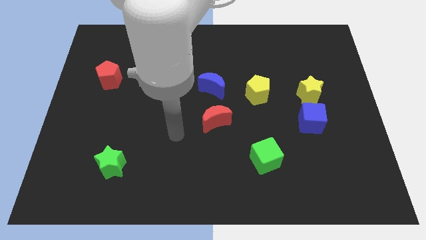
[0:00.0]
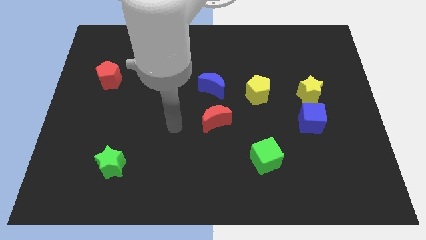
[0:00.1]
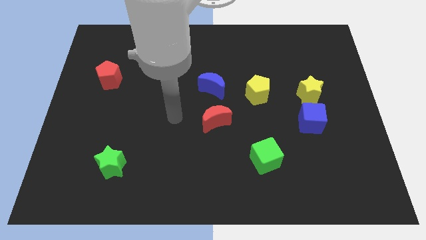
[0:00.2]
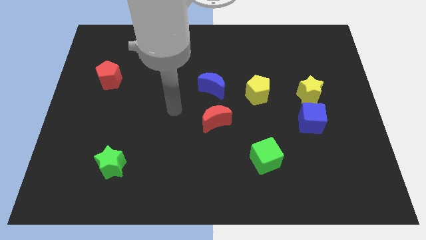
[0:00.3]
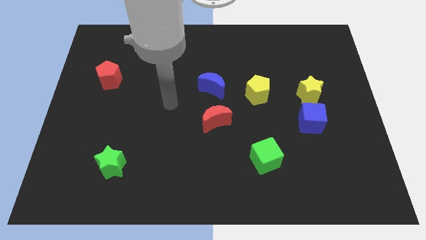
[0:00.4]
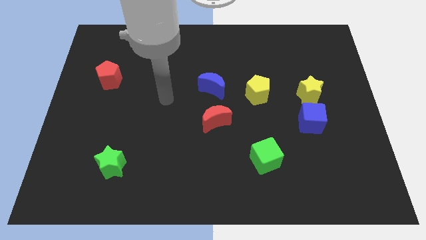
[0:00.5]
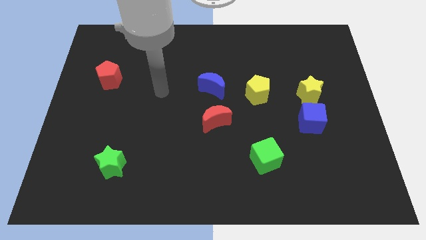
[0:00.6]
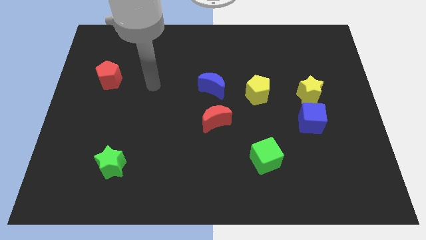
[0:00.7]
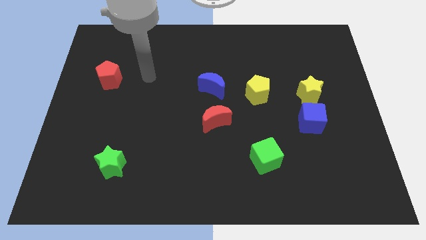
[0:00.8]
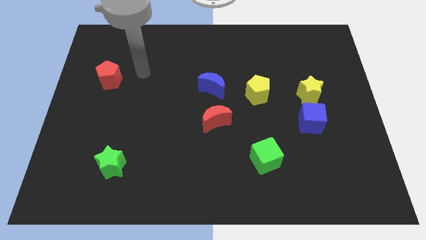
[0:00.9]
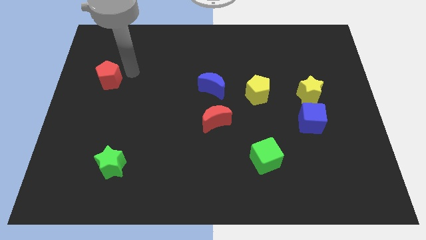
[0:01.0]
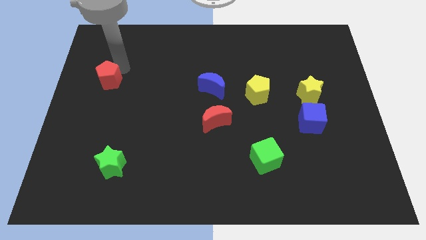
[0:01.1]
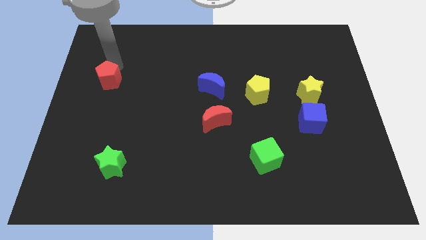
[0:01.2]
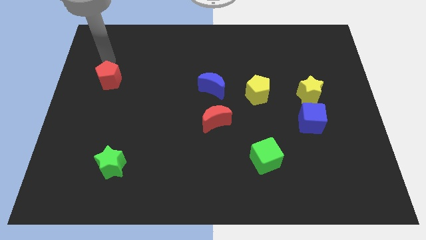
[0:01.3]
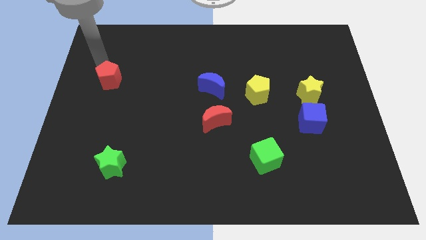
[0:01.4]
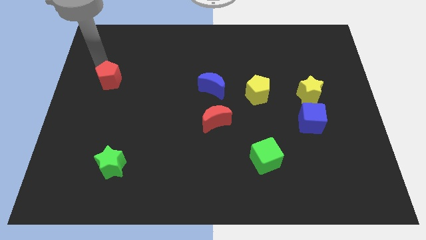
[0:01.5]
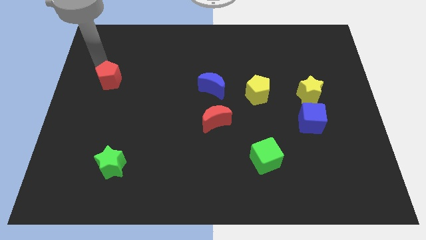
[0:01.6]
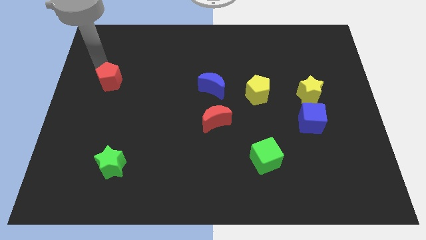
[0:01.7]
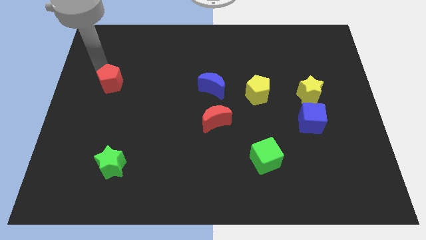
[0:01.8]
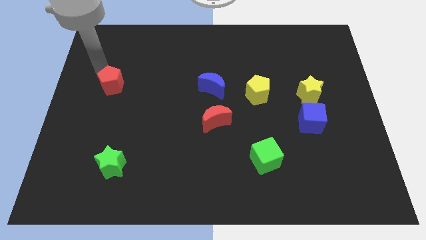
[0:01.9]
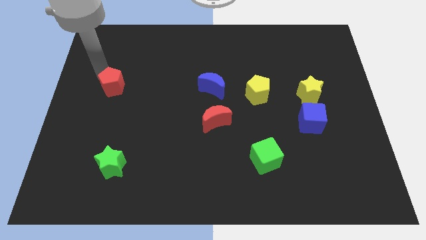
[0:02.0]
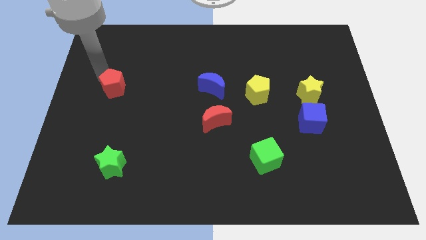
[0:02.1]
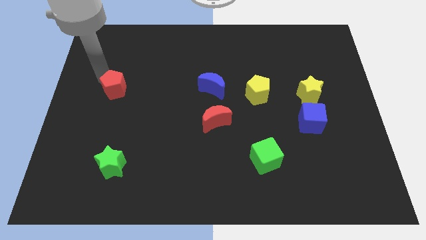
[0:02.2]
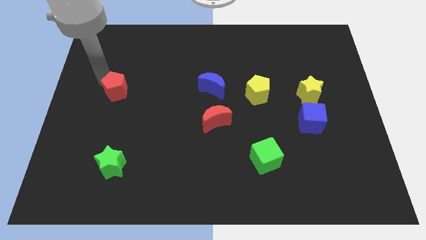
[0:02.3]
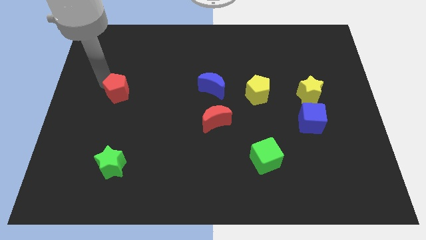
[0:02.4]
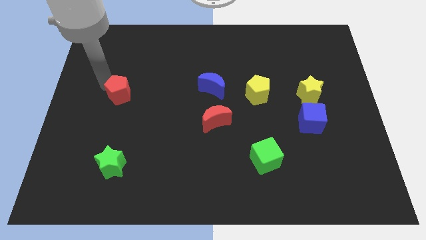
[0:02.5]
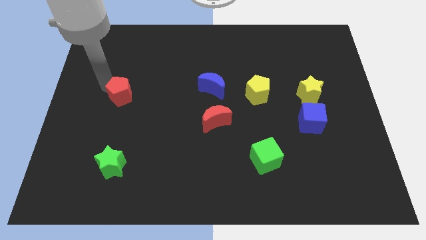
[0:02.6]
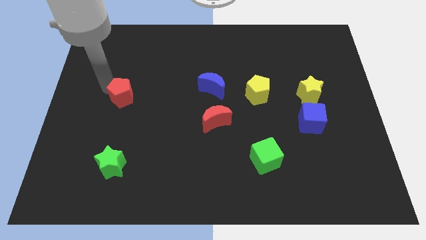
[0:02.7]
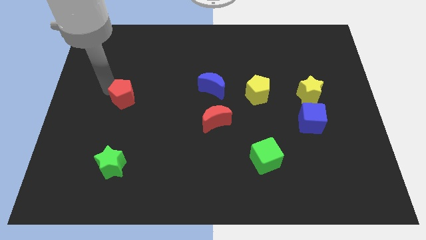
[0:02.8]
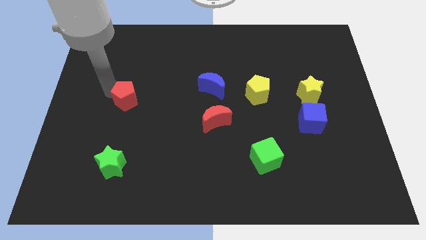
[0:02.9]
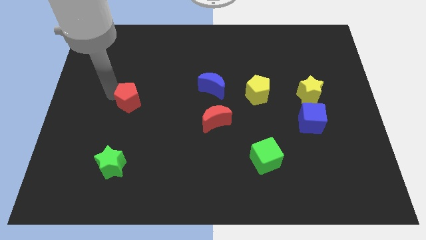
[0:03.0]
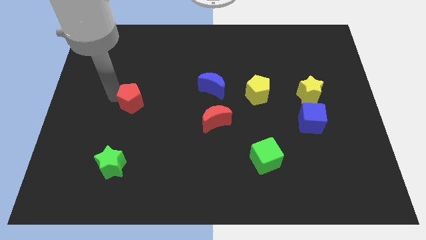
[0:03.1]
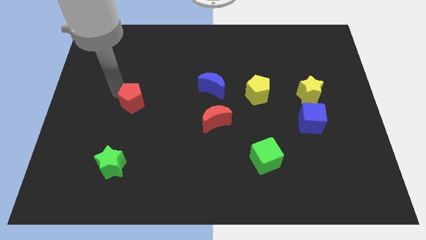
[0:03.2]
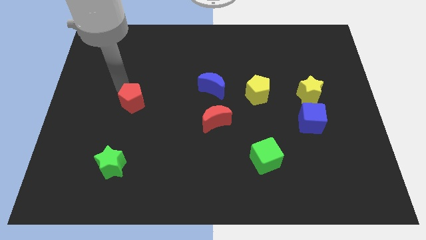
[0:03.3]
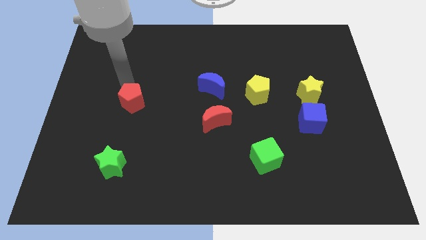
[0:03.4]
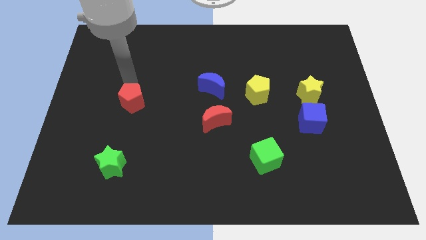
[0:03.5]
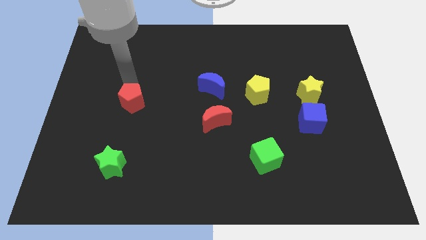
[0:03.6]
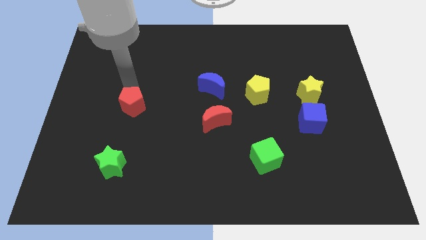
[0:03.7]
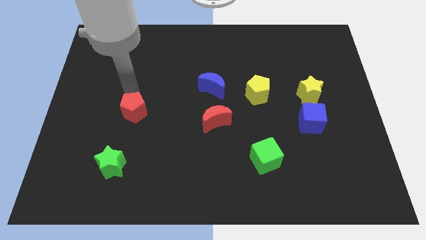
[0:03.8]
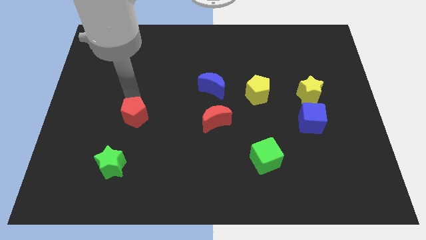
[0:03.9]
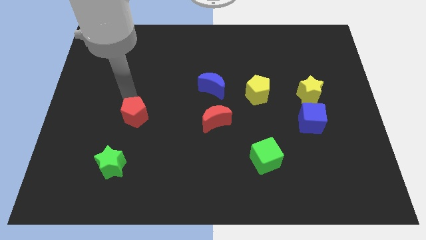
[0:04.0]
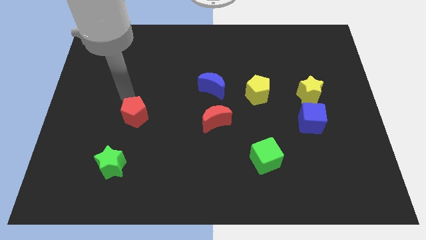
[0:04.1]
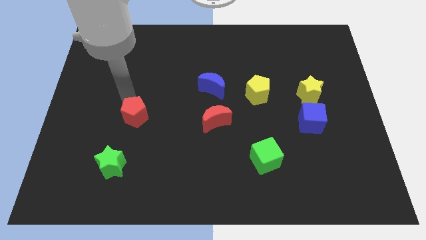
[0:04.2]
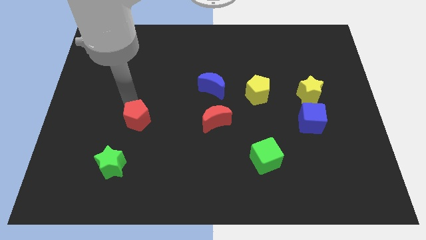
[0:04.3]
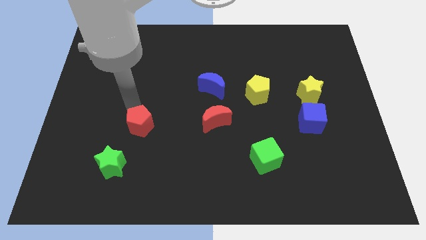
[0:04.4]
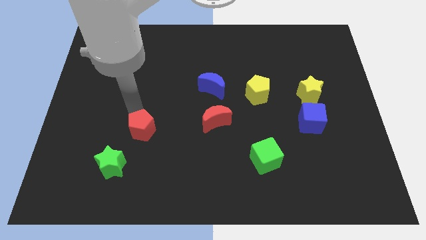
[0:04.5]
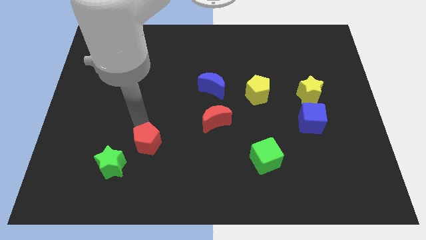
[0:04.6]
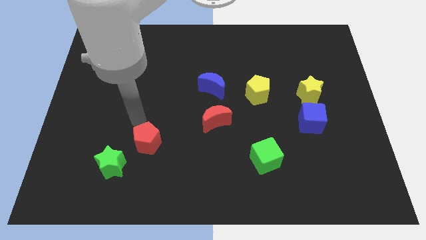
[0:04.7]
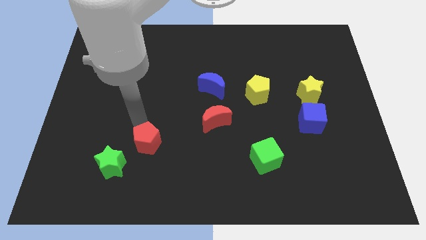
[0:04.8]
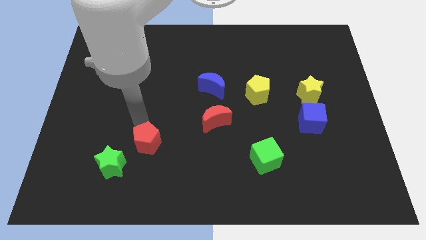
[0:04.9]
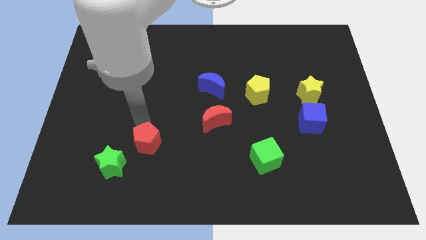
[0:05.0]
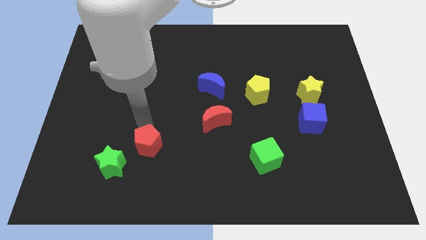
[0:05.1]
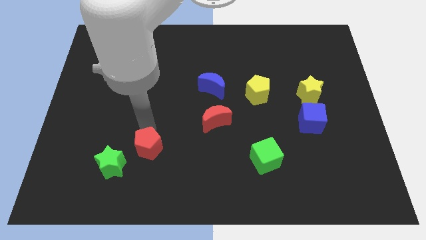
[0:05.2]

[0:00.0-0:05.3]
slide the red pentagon just right of the green star

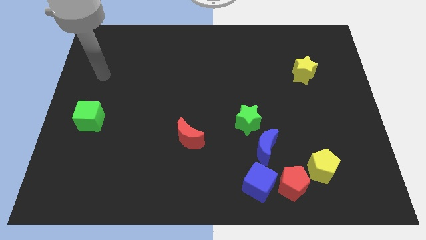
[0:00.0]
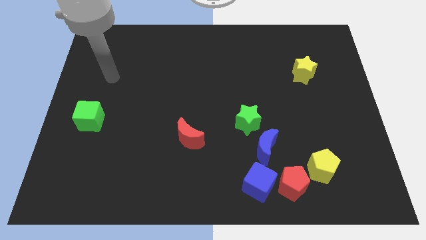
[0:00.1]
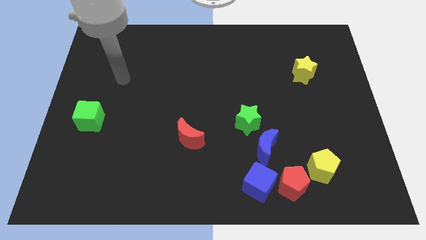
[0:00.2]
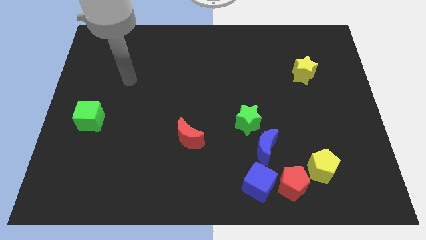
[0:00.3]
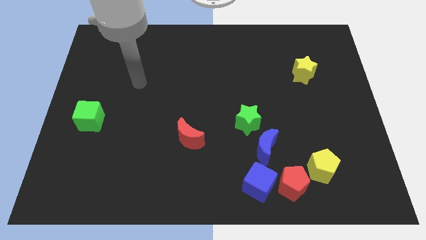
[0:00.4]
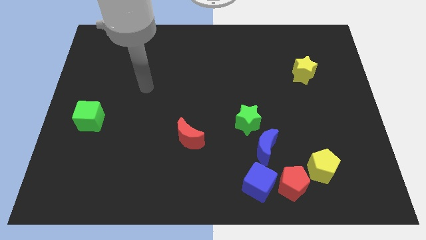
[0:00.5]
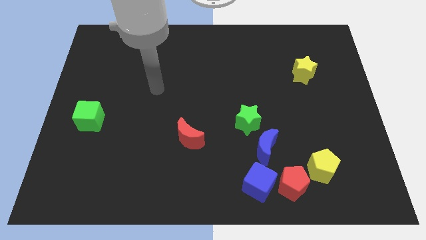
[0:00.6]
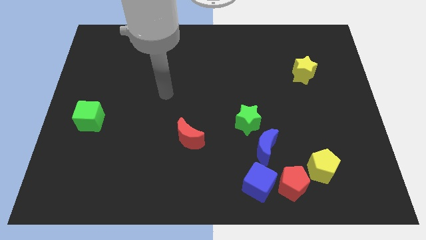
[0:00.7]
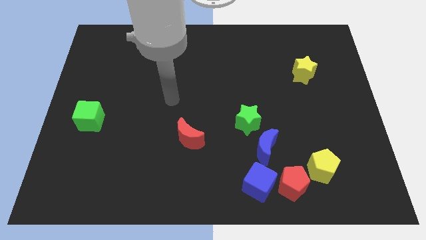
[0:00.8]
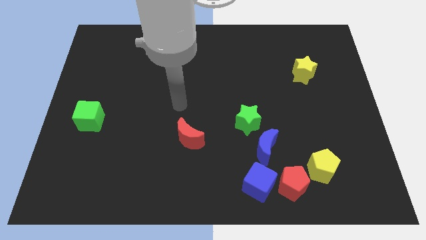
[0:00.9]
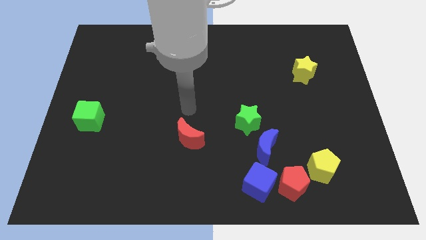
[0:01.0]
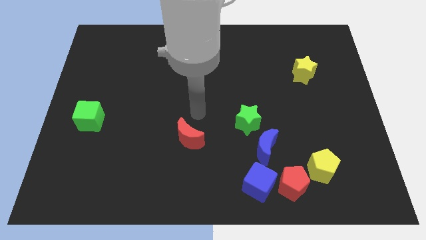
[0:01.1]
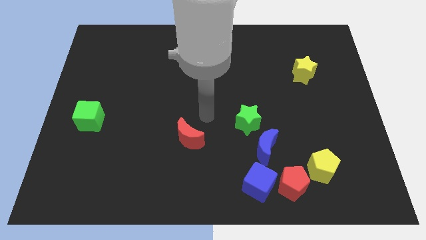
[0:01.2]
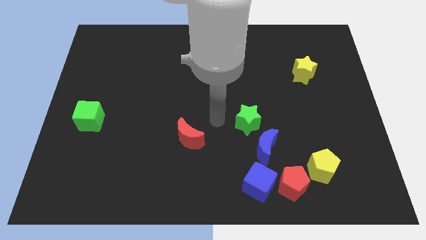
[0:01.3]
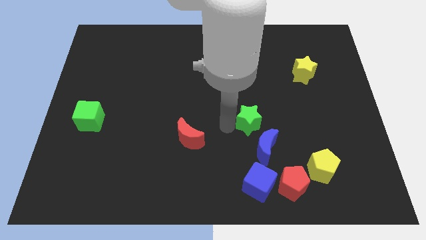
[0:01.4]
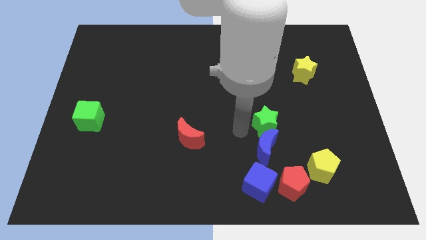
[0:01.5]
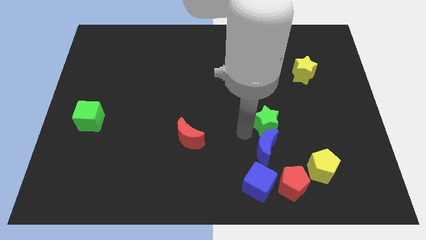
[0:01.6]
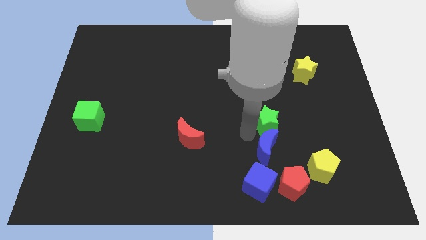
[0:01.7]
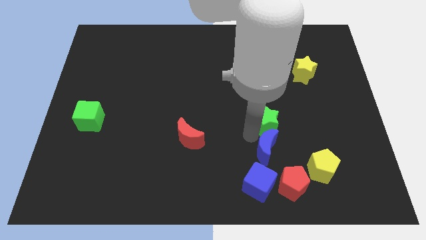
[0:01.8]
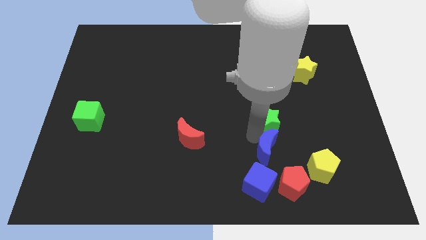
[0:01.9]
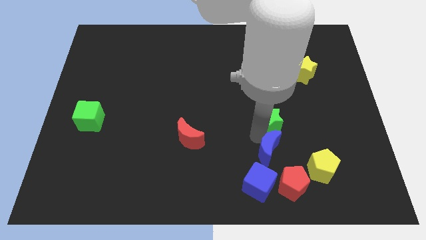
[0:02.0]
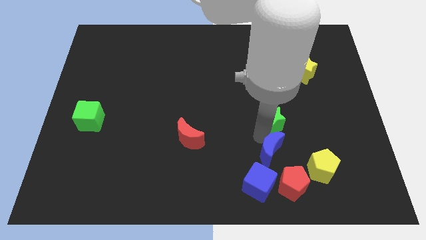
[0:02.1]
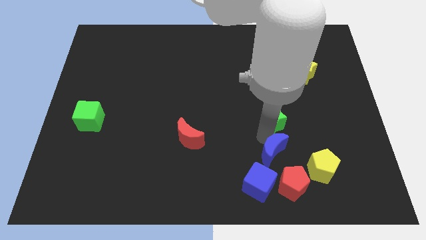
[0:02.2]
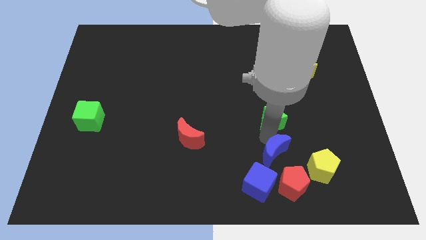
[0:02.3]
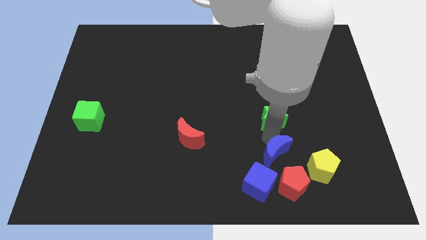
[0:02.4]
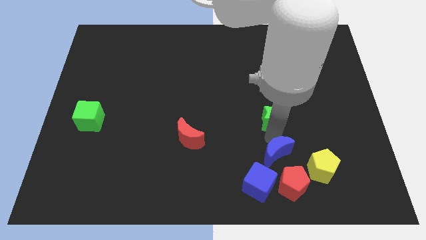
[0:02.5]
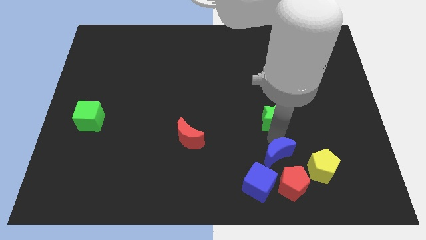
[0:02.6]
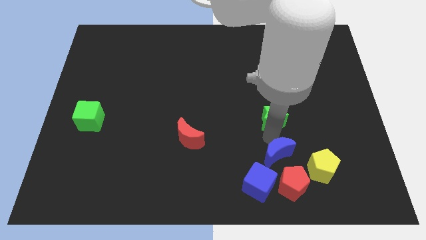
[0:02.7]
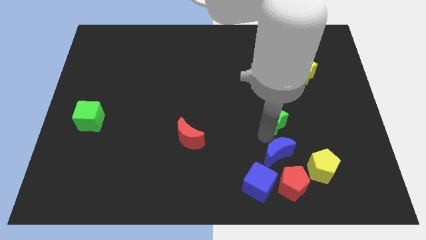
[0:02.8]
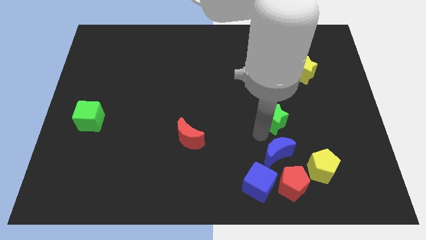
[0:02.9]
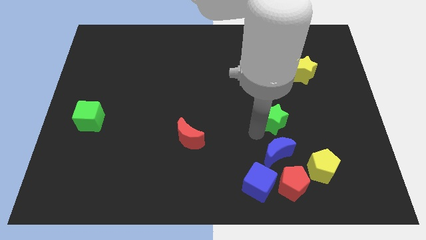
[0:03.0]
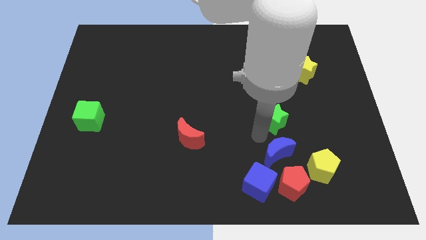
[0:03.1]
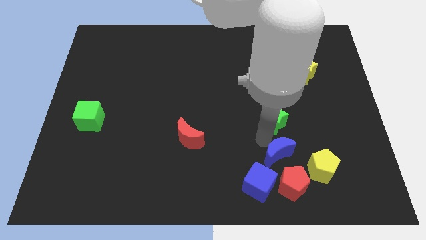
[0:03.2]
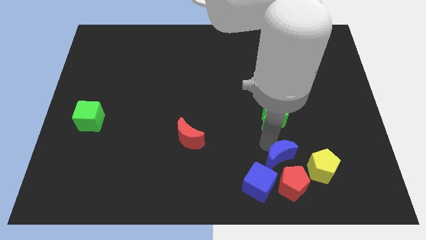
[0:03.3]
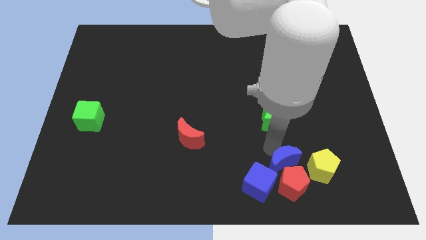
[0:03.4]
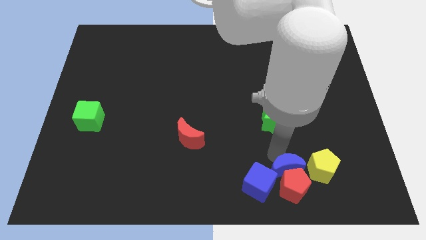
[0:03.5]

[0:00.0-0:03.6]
slide the blue moon just right of the blue cube
